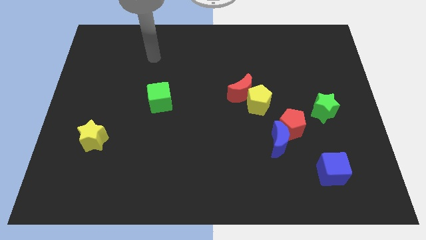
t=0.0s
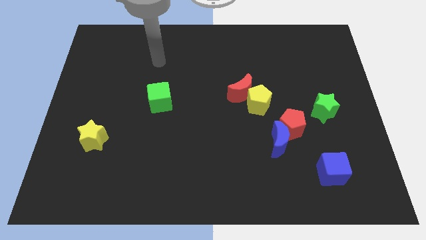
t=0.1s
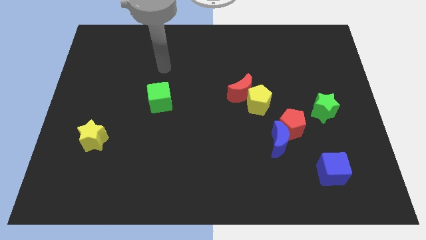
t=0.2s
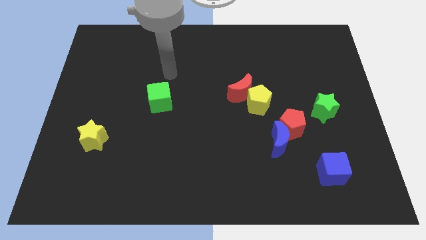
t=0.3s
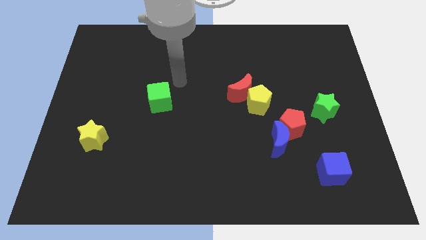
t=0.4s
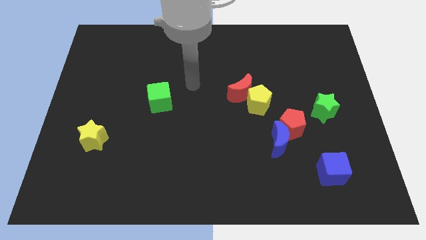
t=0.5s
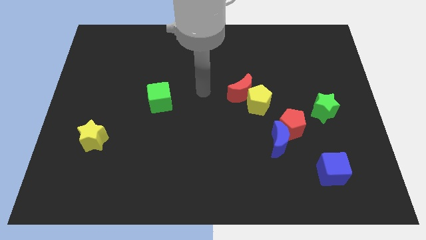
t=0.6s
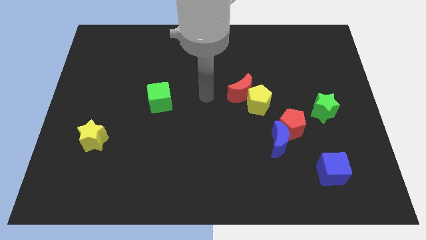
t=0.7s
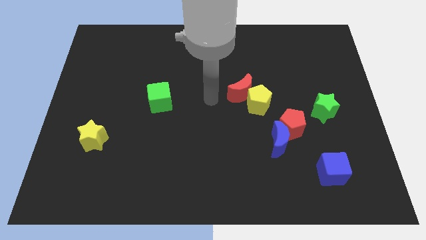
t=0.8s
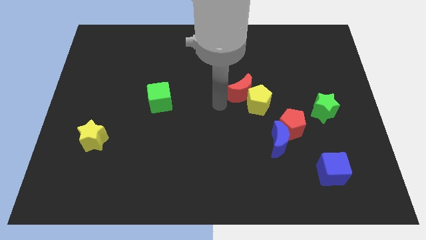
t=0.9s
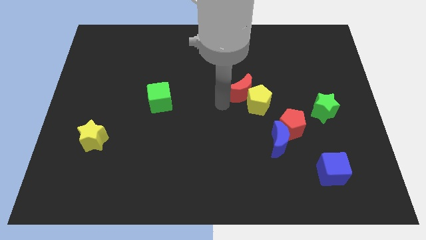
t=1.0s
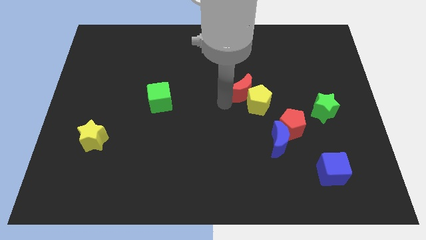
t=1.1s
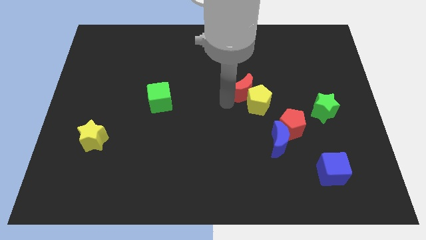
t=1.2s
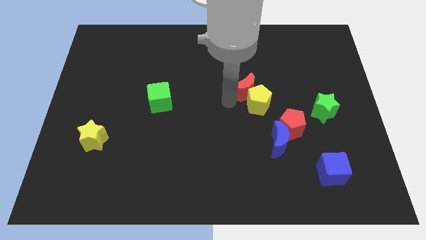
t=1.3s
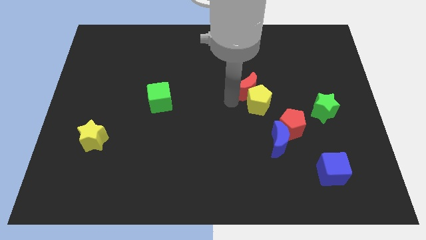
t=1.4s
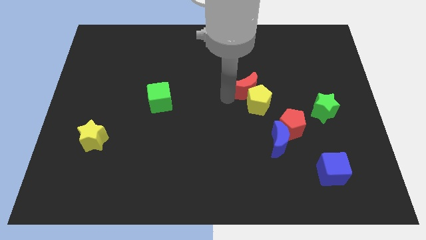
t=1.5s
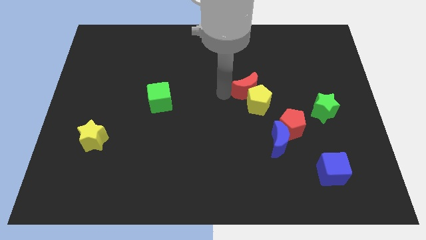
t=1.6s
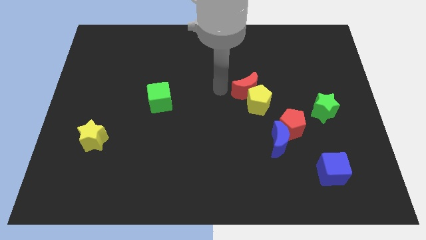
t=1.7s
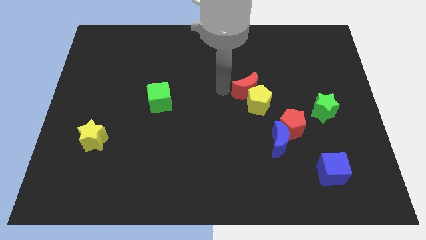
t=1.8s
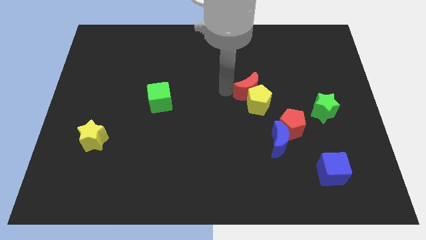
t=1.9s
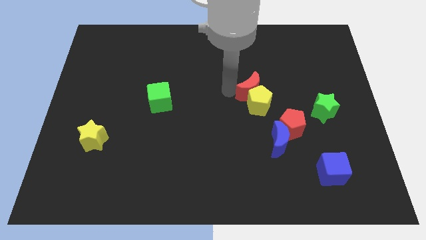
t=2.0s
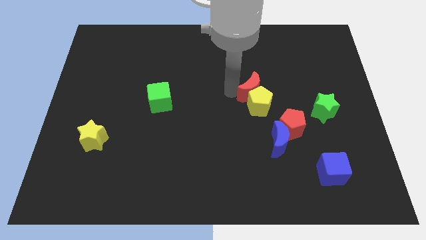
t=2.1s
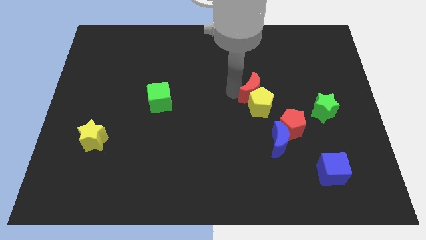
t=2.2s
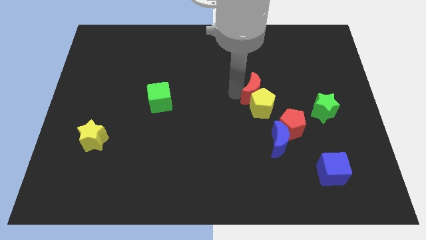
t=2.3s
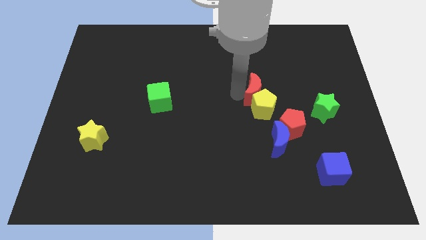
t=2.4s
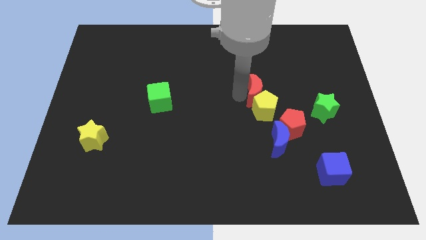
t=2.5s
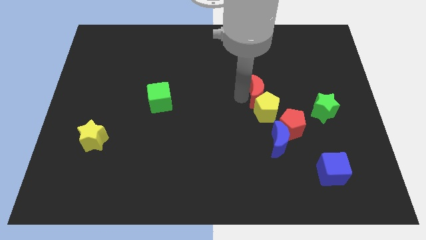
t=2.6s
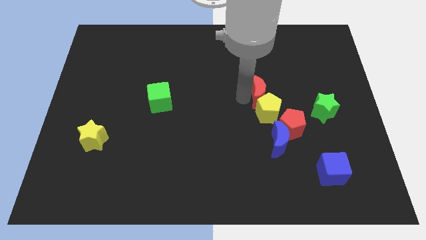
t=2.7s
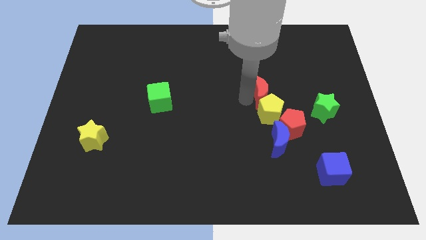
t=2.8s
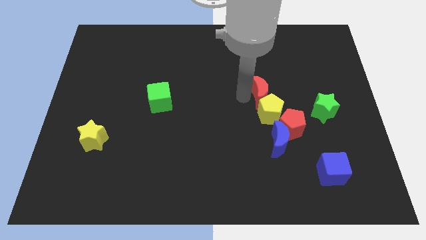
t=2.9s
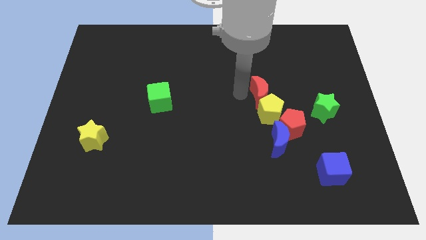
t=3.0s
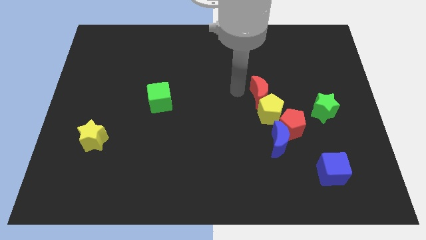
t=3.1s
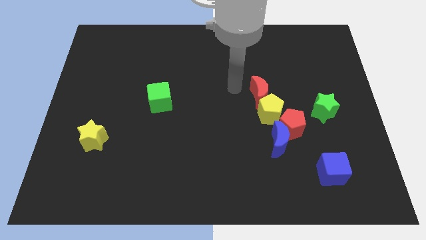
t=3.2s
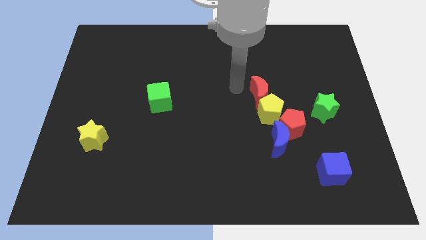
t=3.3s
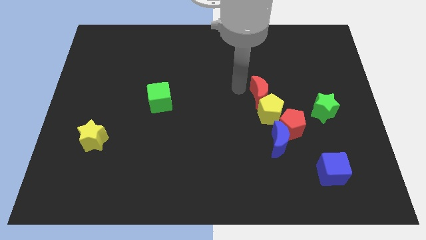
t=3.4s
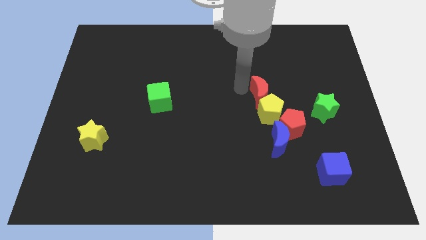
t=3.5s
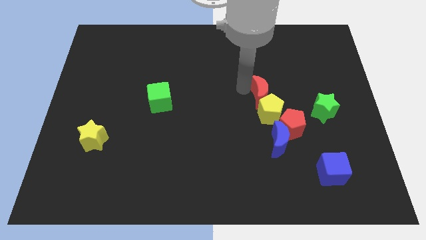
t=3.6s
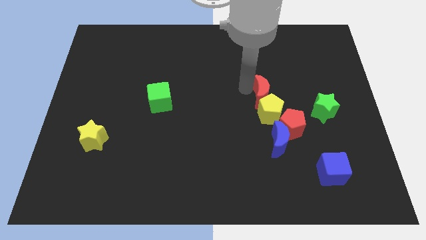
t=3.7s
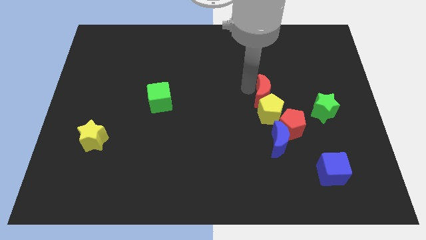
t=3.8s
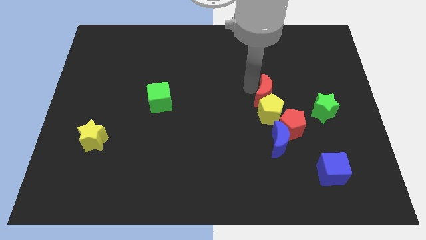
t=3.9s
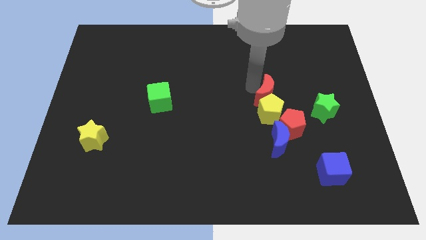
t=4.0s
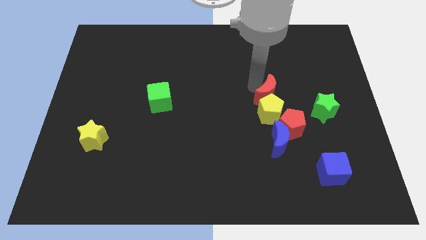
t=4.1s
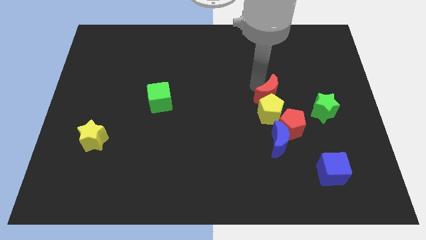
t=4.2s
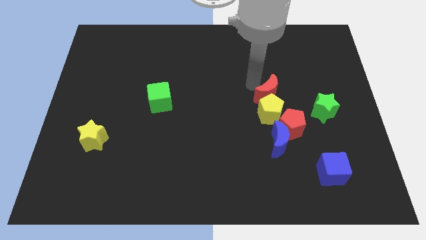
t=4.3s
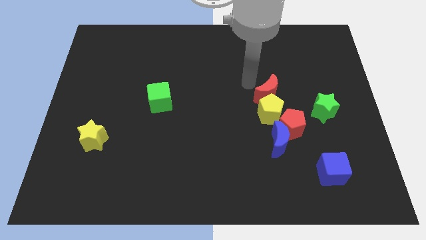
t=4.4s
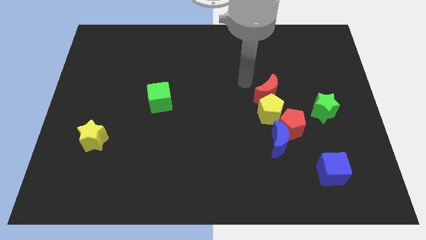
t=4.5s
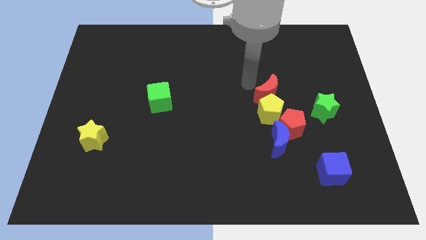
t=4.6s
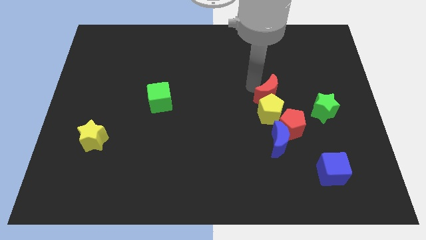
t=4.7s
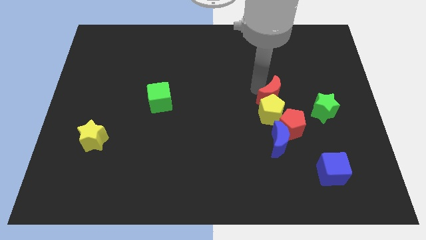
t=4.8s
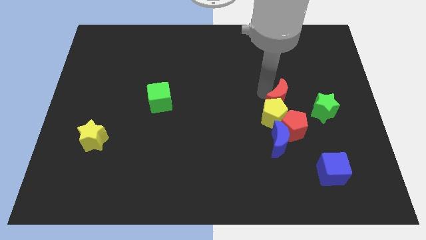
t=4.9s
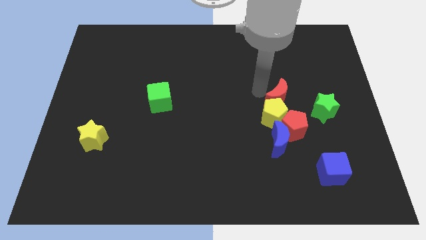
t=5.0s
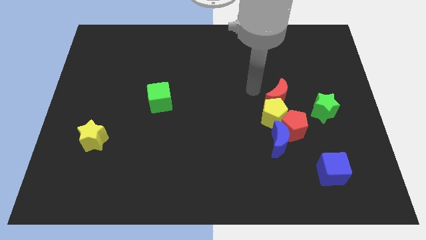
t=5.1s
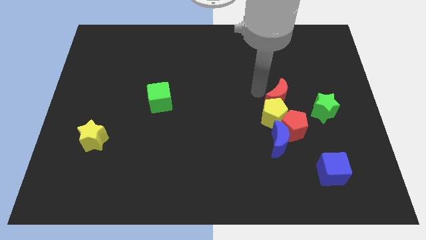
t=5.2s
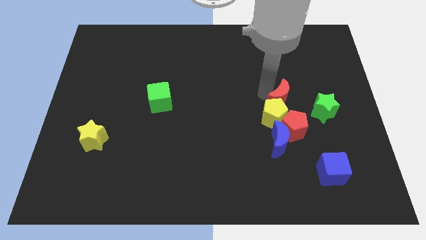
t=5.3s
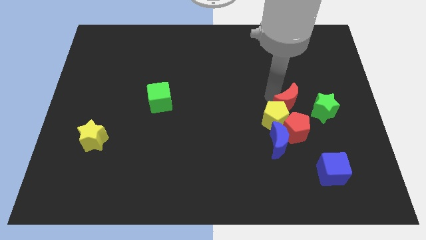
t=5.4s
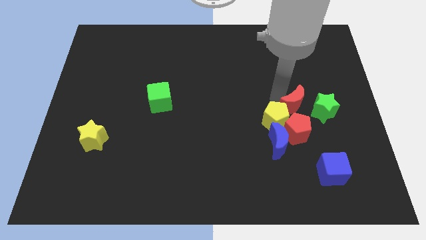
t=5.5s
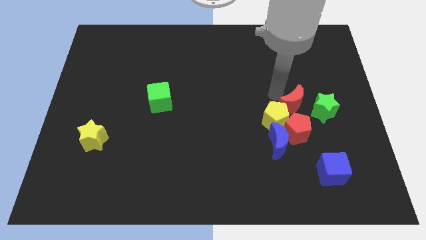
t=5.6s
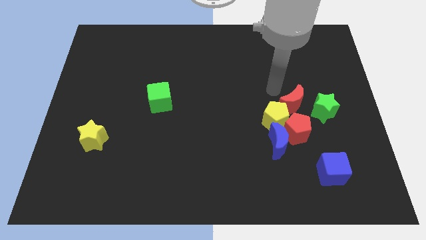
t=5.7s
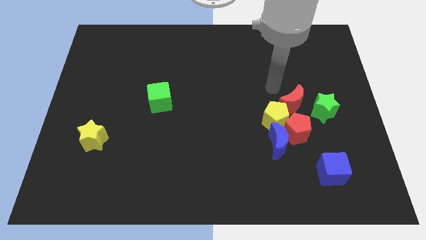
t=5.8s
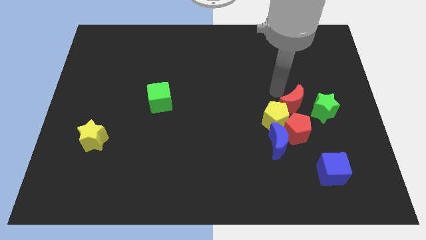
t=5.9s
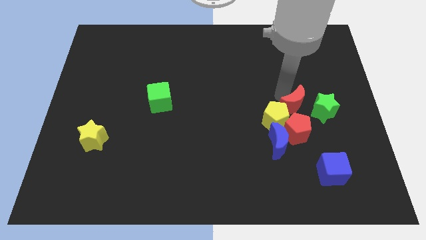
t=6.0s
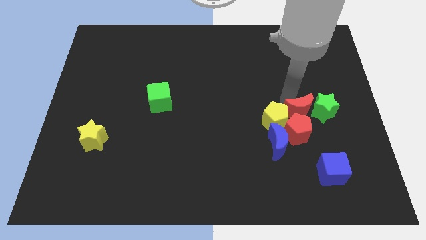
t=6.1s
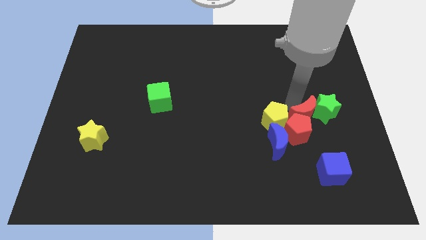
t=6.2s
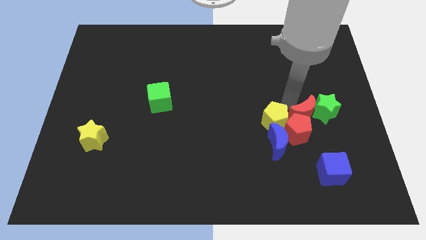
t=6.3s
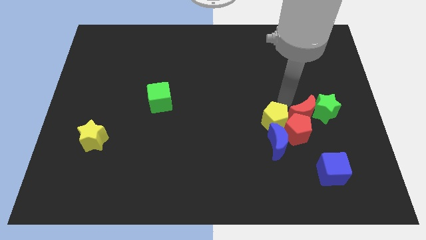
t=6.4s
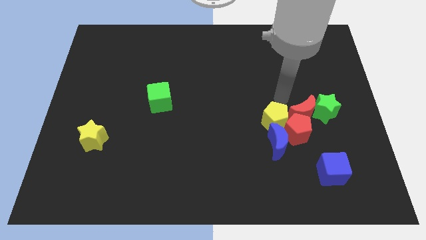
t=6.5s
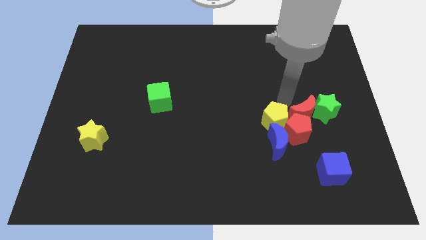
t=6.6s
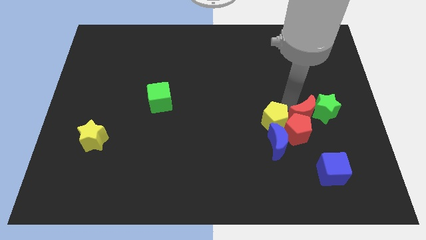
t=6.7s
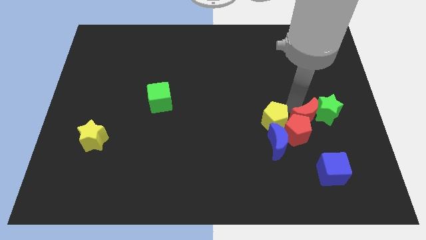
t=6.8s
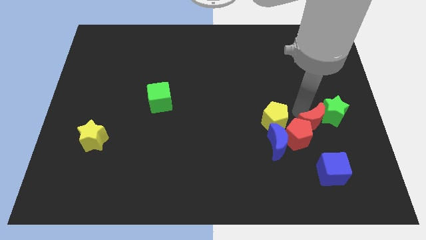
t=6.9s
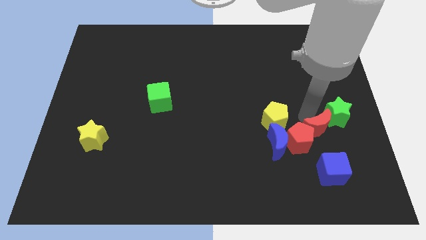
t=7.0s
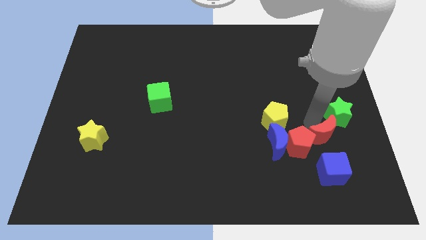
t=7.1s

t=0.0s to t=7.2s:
slide the red moon to the bottom side of the green star
